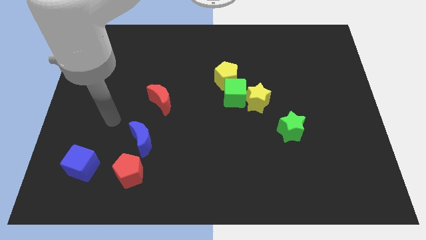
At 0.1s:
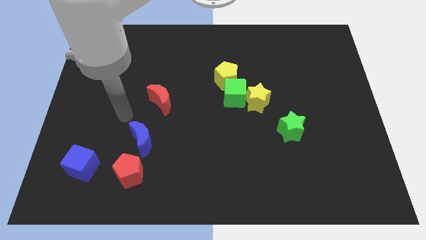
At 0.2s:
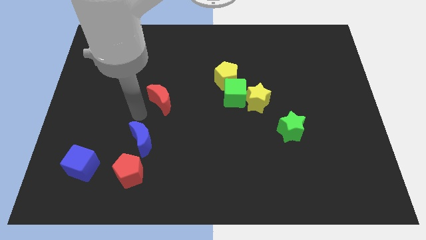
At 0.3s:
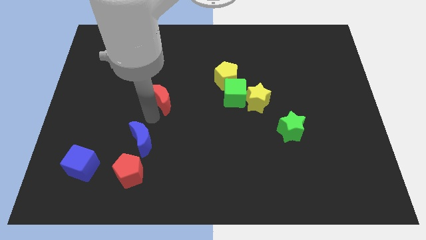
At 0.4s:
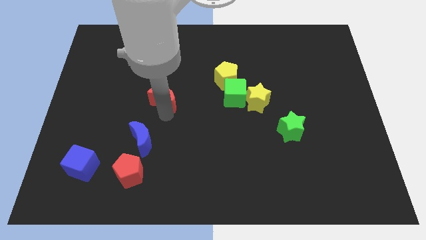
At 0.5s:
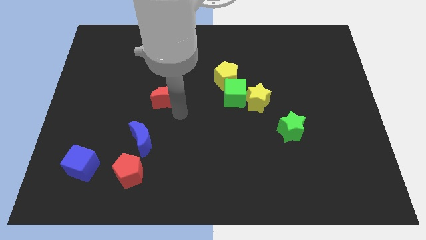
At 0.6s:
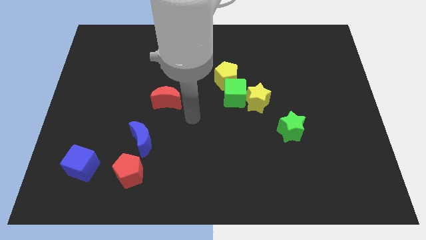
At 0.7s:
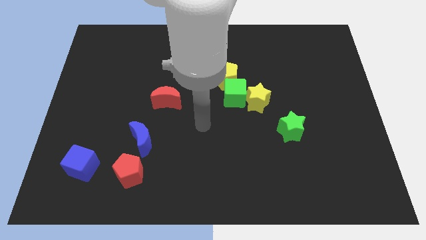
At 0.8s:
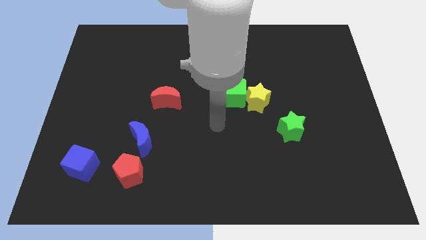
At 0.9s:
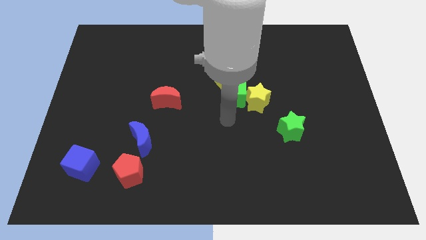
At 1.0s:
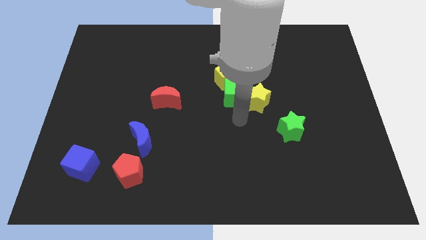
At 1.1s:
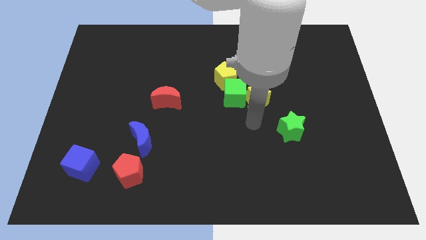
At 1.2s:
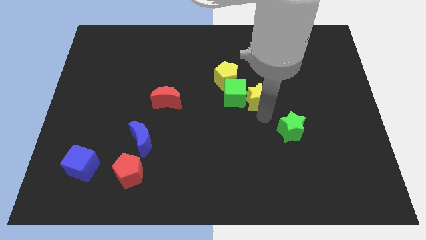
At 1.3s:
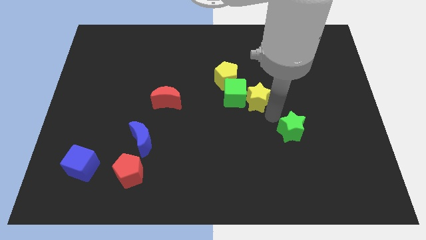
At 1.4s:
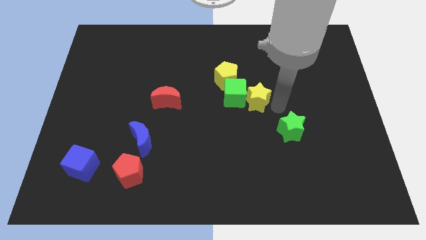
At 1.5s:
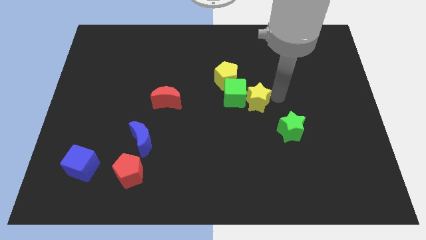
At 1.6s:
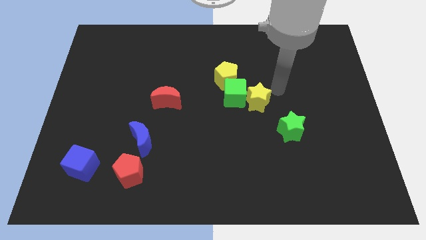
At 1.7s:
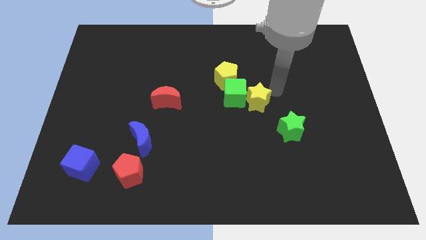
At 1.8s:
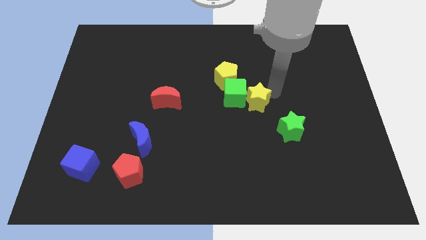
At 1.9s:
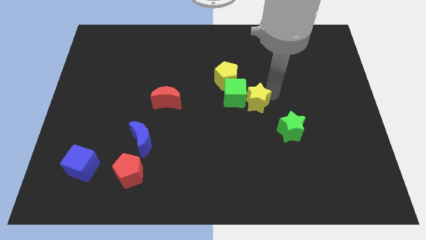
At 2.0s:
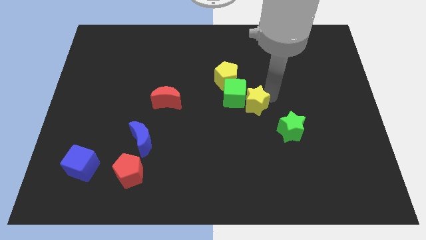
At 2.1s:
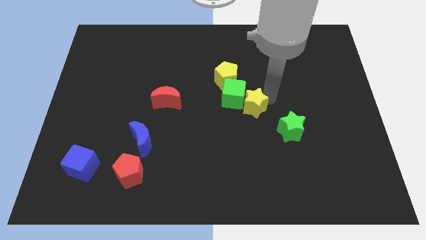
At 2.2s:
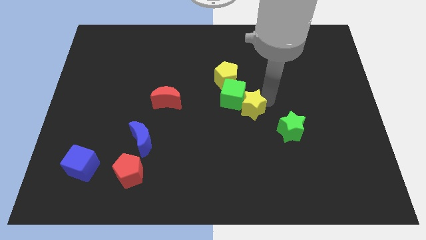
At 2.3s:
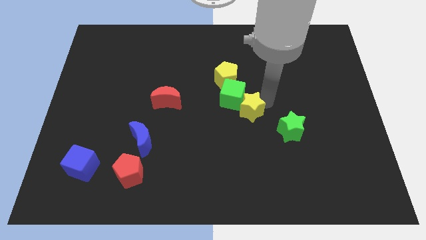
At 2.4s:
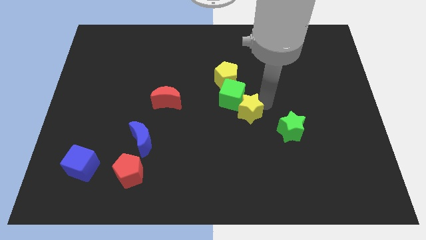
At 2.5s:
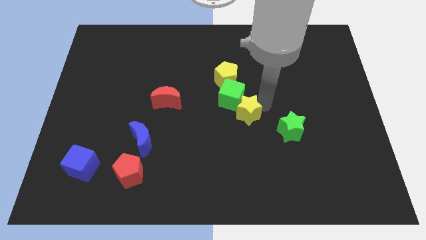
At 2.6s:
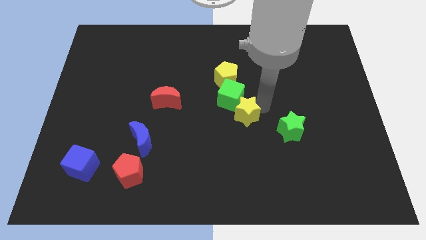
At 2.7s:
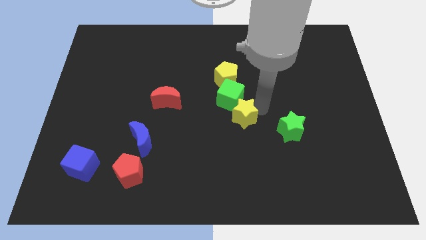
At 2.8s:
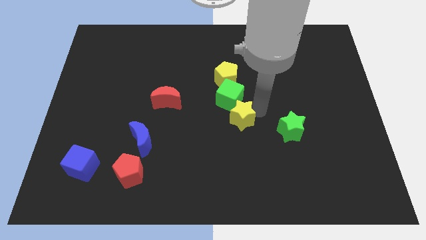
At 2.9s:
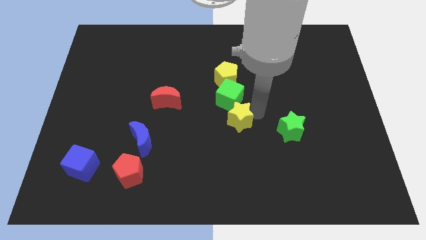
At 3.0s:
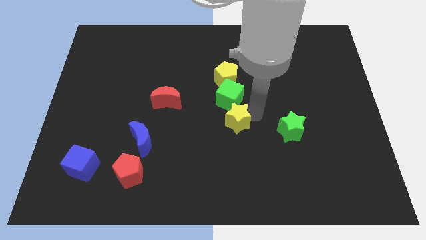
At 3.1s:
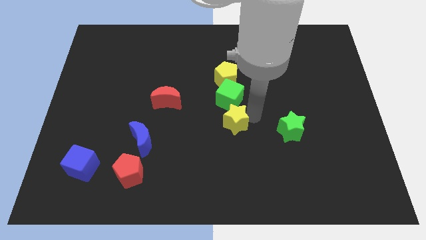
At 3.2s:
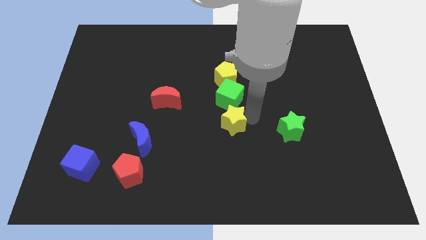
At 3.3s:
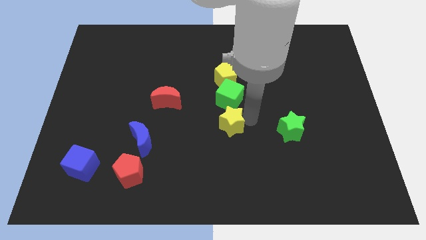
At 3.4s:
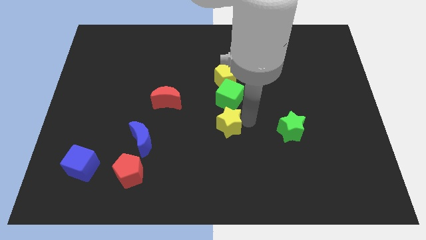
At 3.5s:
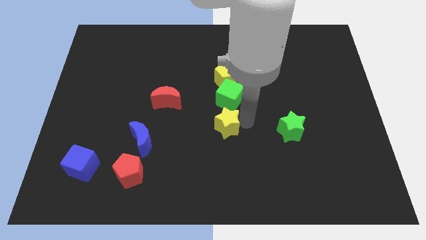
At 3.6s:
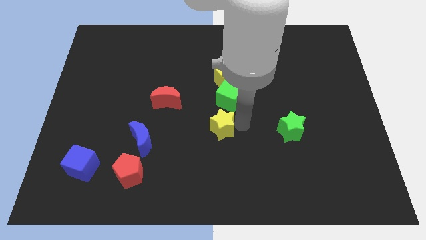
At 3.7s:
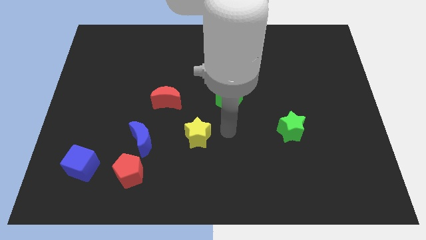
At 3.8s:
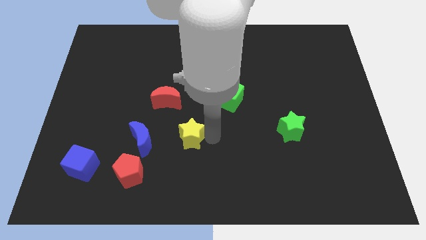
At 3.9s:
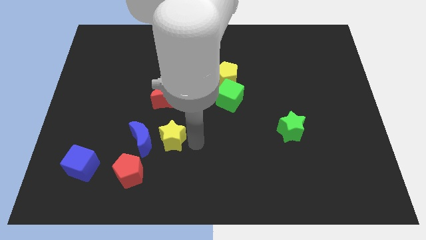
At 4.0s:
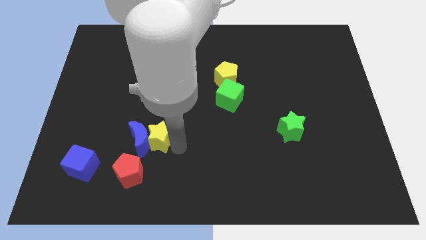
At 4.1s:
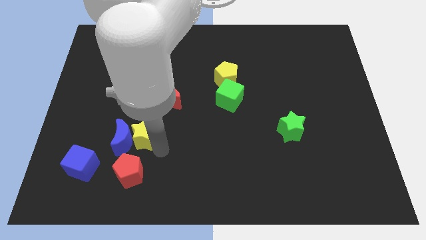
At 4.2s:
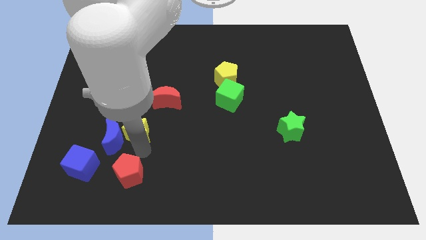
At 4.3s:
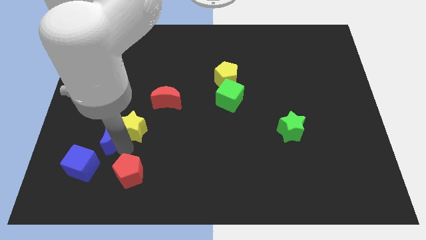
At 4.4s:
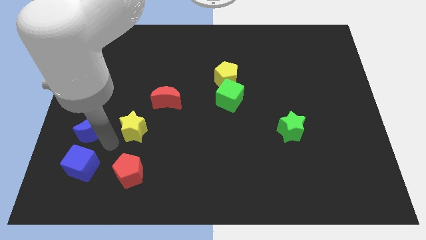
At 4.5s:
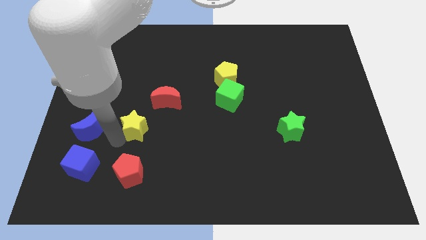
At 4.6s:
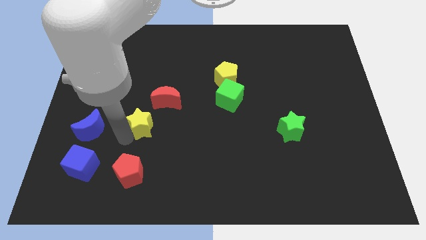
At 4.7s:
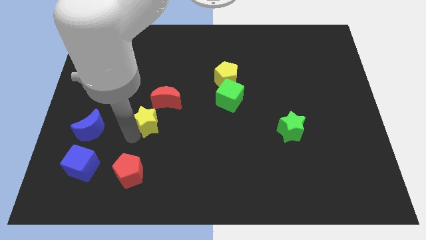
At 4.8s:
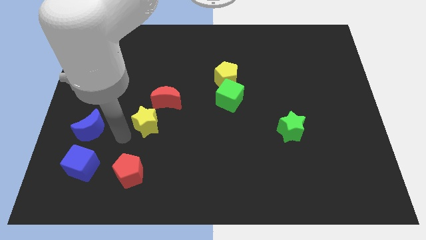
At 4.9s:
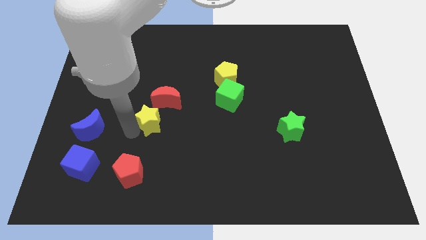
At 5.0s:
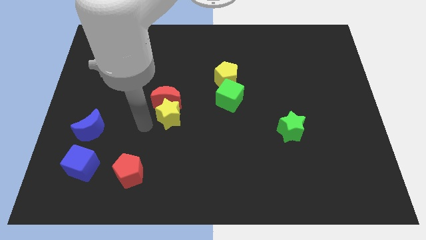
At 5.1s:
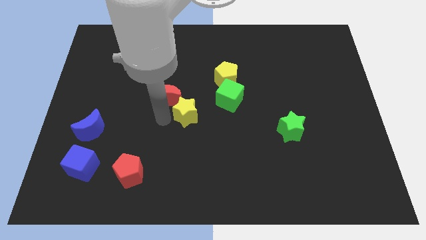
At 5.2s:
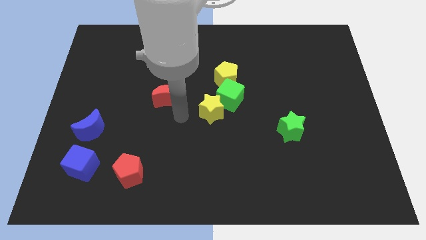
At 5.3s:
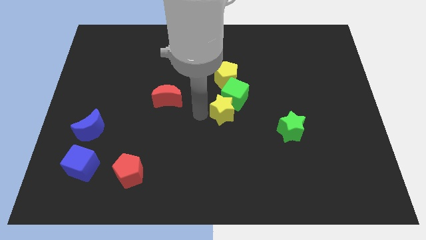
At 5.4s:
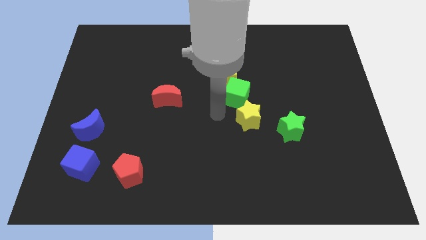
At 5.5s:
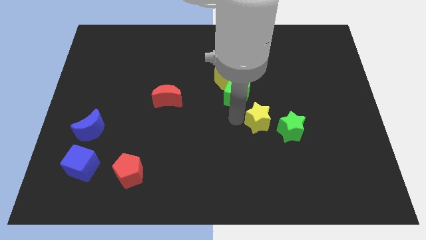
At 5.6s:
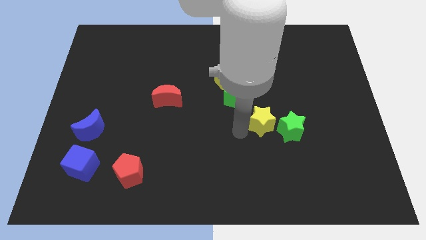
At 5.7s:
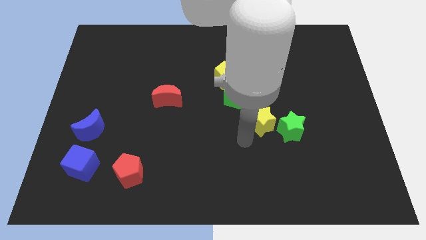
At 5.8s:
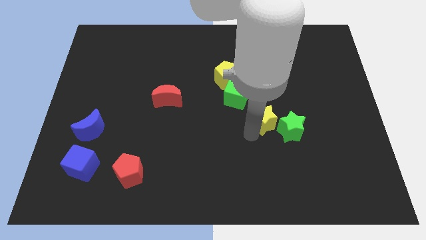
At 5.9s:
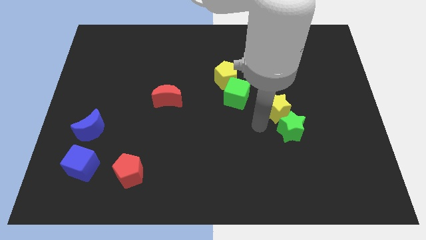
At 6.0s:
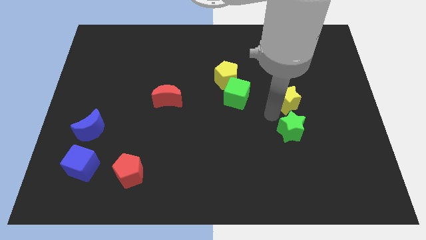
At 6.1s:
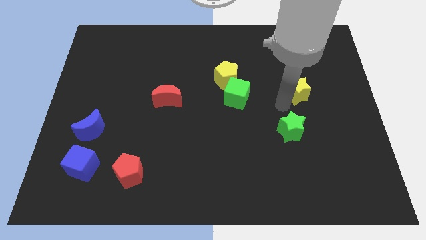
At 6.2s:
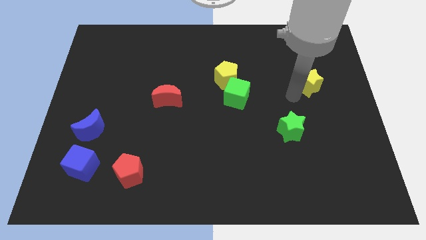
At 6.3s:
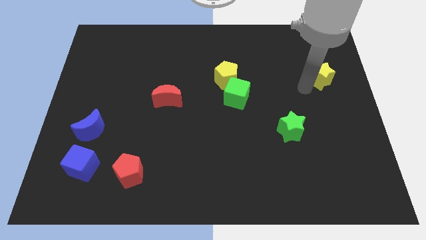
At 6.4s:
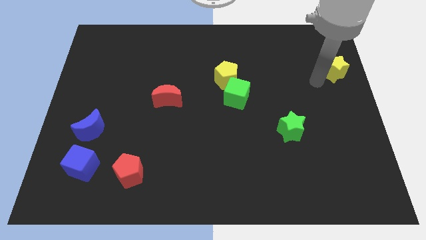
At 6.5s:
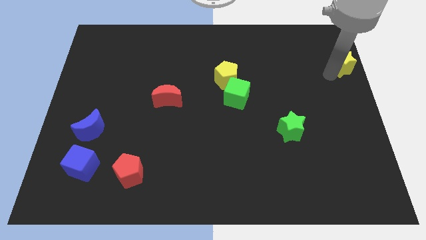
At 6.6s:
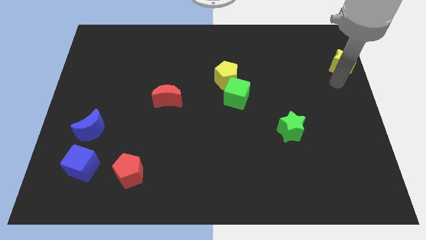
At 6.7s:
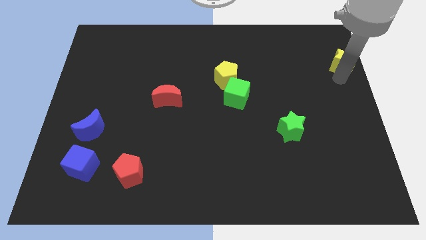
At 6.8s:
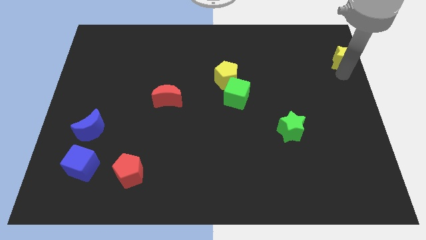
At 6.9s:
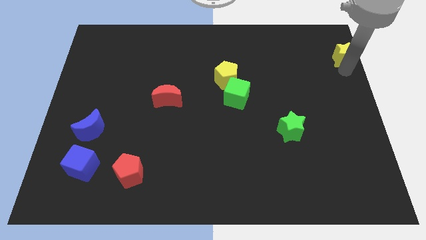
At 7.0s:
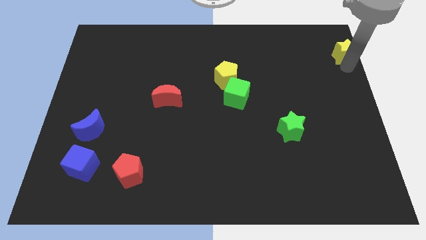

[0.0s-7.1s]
move the yellow star to the top right of the board

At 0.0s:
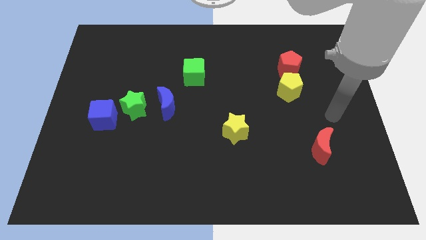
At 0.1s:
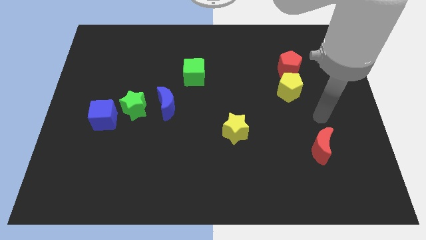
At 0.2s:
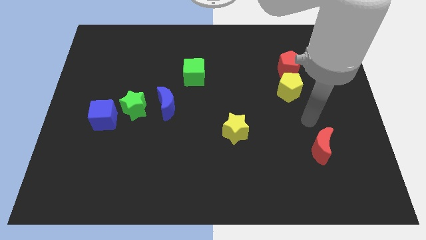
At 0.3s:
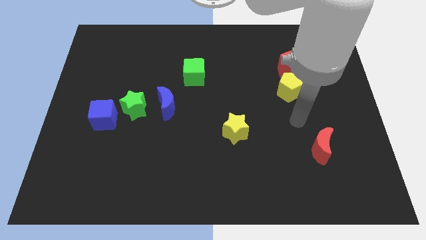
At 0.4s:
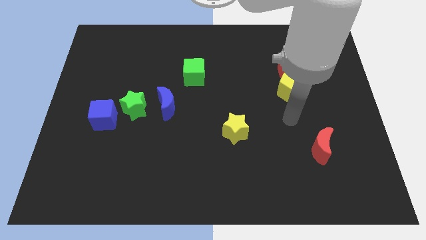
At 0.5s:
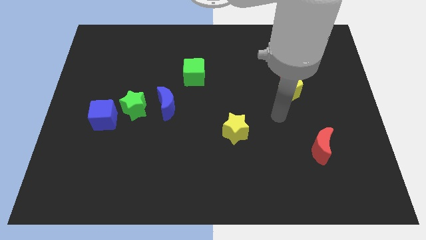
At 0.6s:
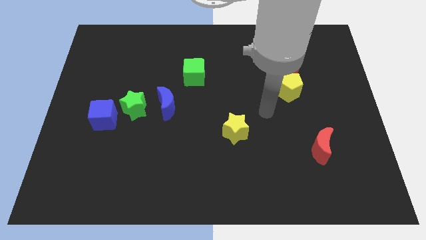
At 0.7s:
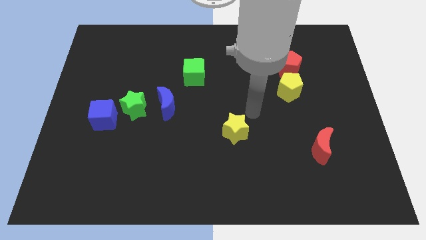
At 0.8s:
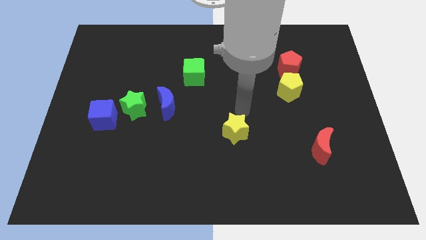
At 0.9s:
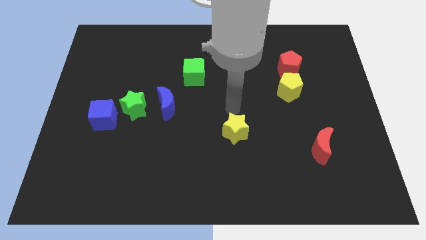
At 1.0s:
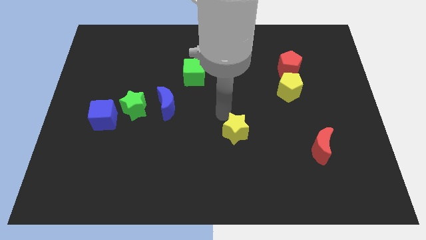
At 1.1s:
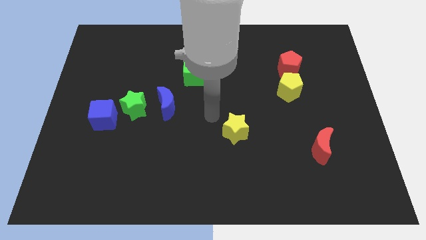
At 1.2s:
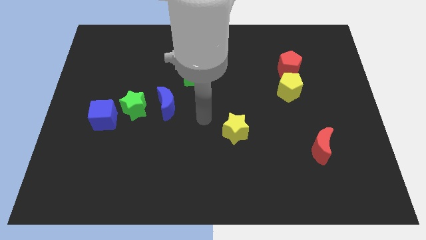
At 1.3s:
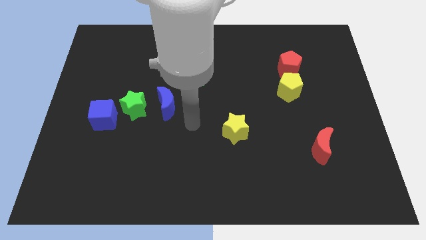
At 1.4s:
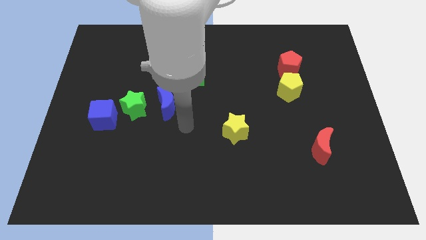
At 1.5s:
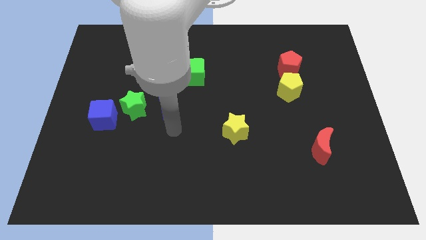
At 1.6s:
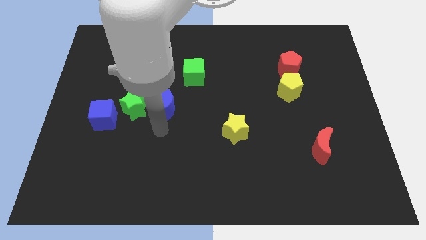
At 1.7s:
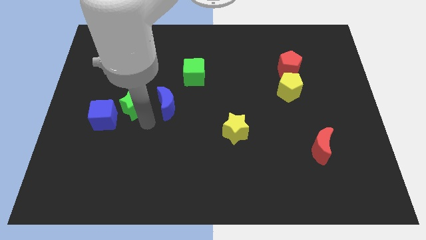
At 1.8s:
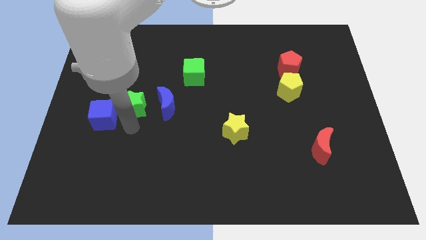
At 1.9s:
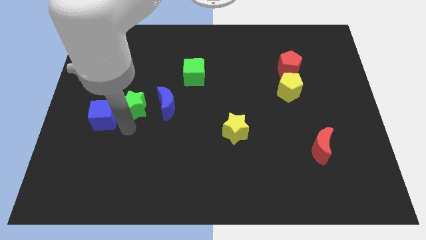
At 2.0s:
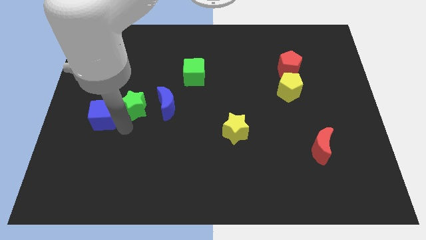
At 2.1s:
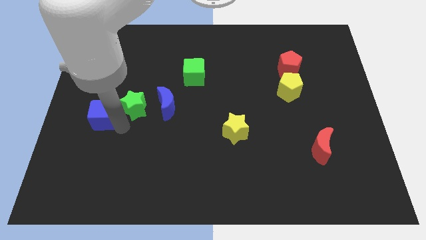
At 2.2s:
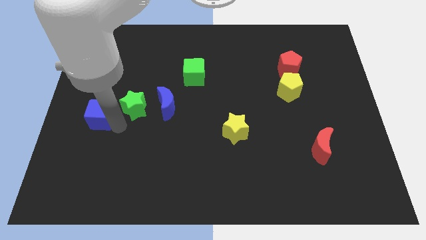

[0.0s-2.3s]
slide the blue cube to the left side of the board
